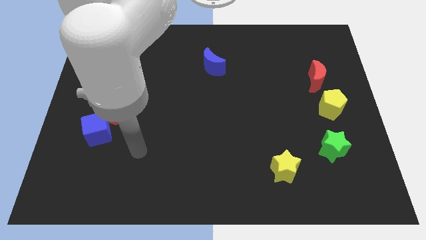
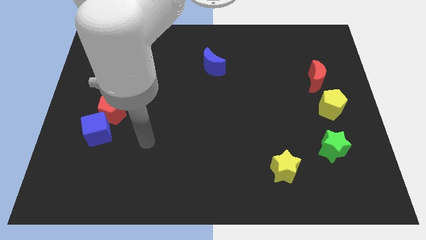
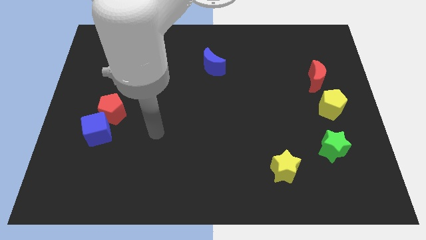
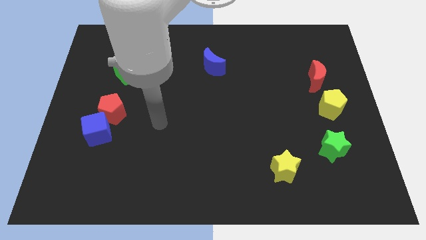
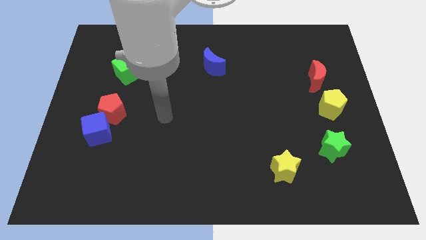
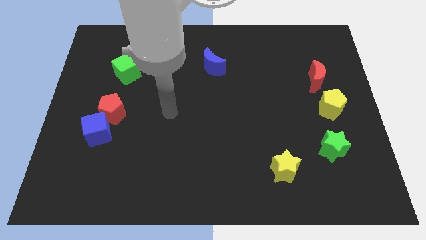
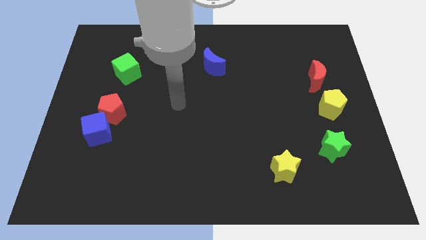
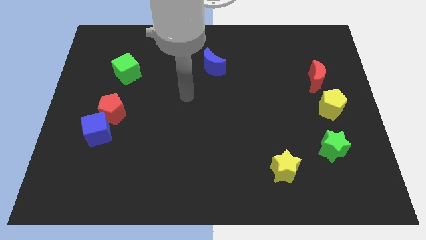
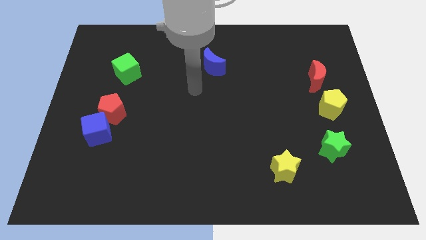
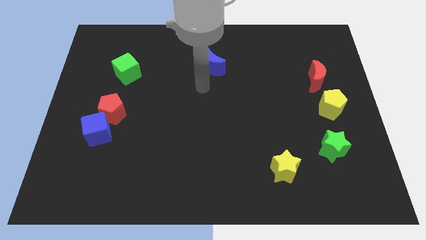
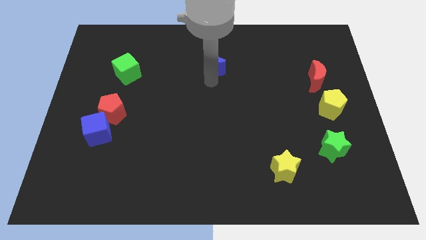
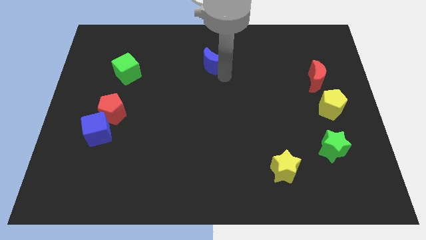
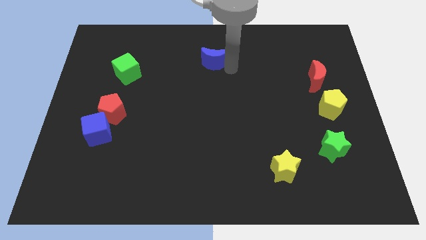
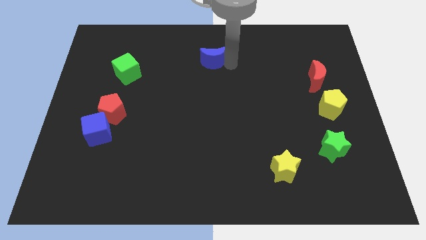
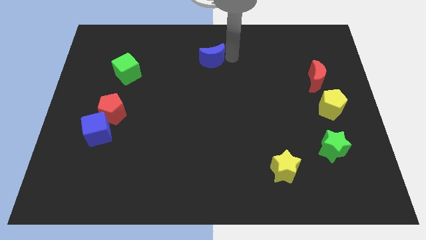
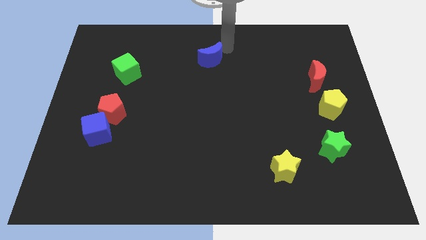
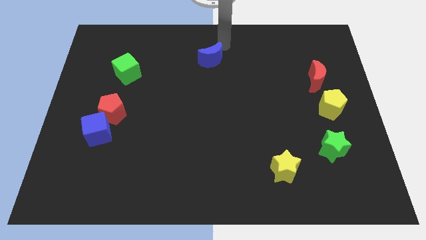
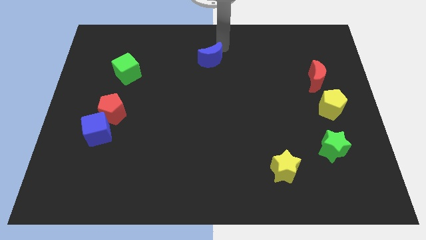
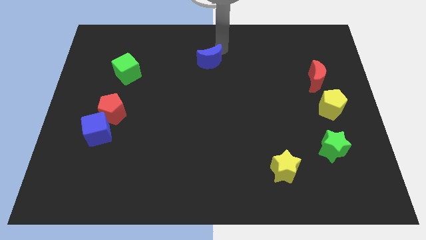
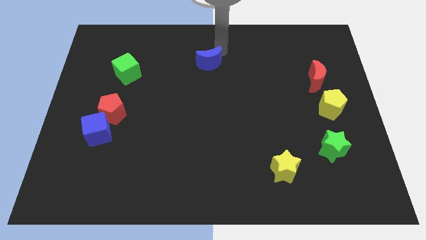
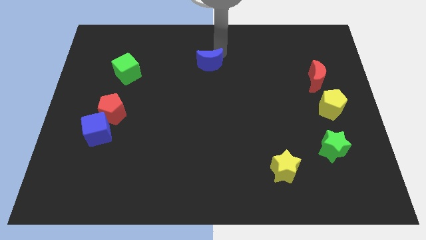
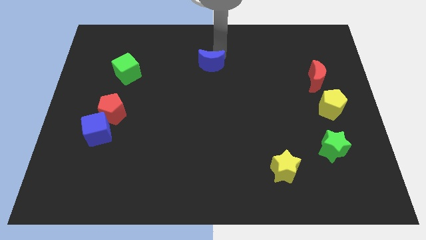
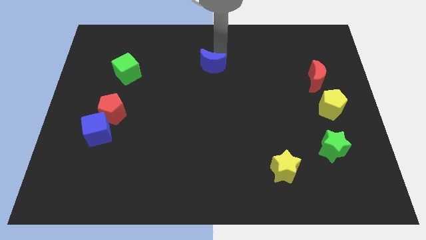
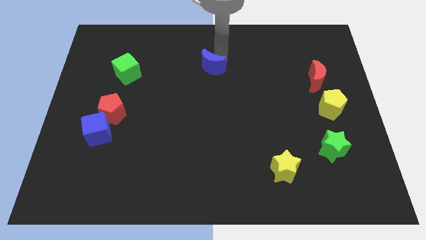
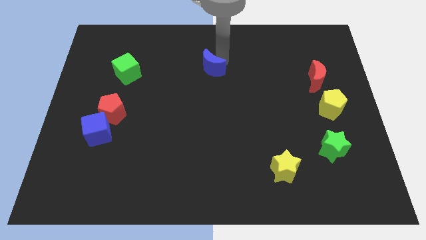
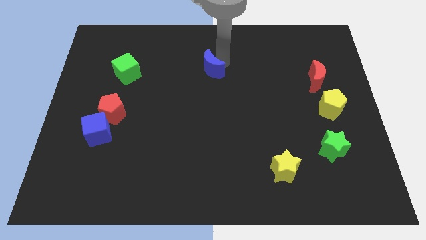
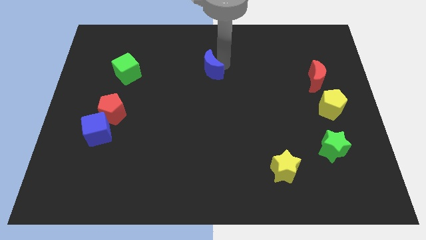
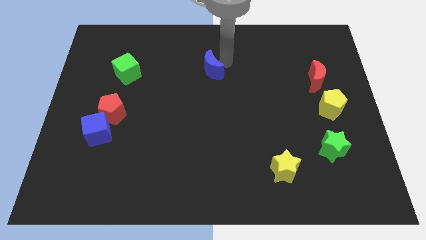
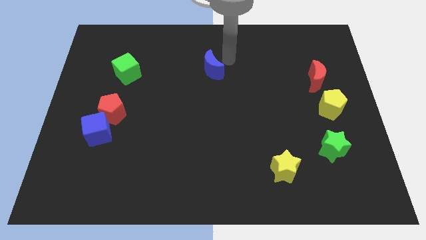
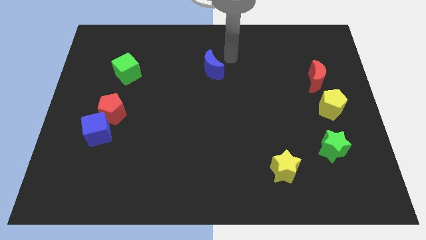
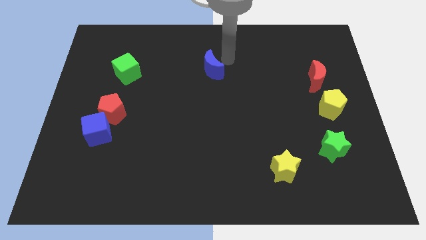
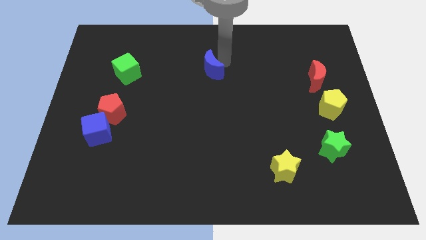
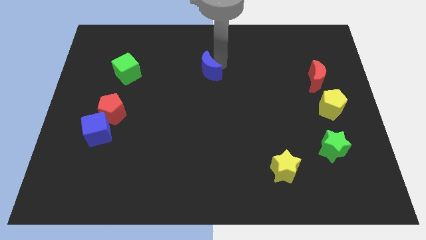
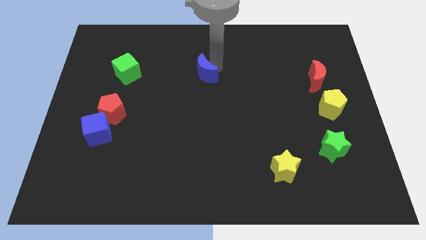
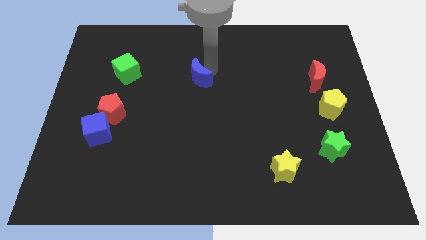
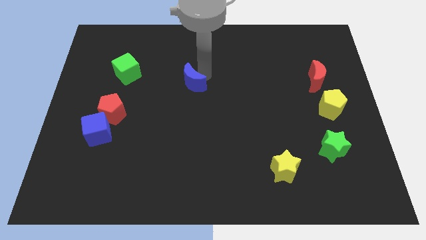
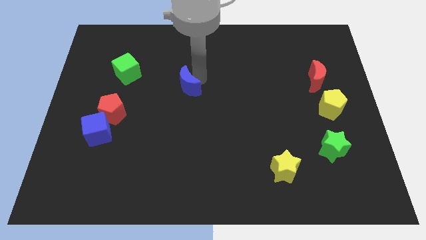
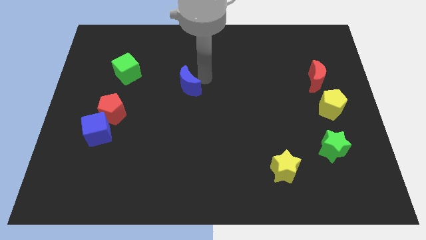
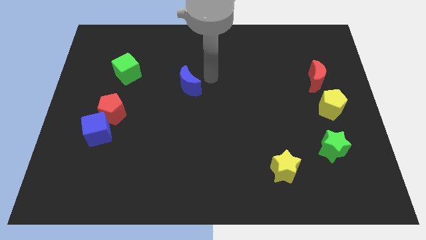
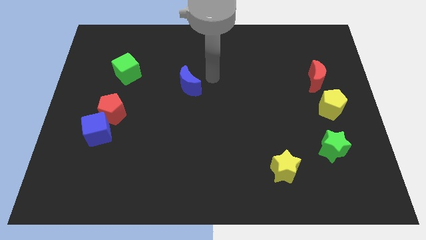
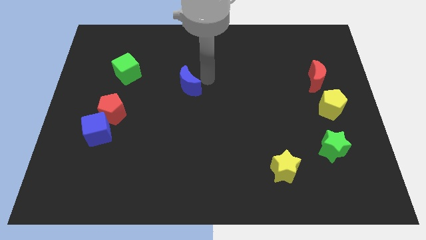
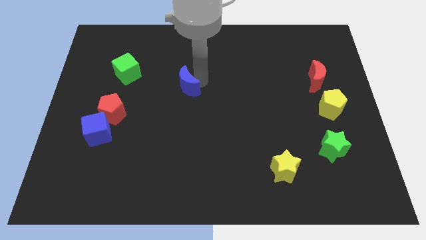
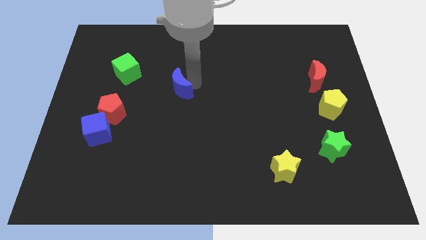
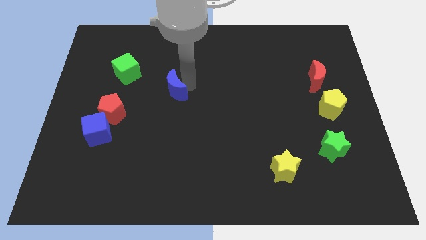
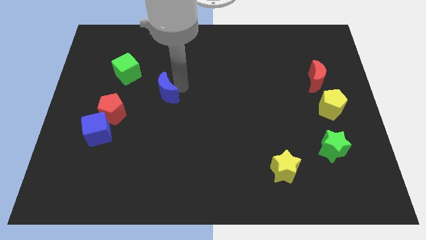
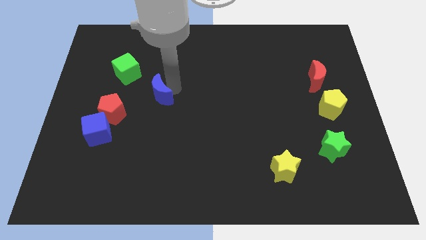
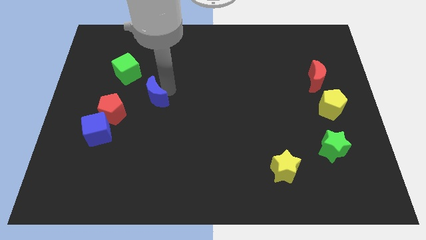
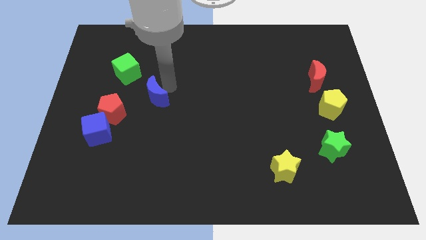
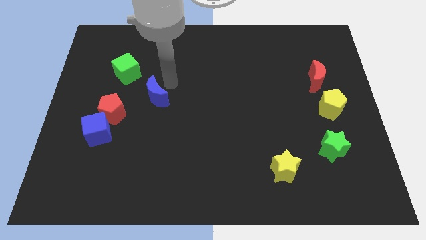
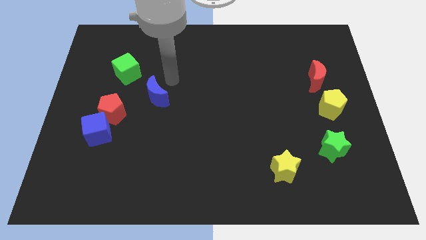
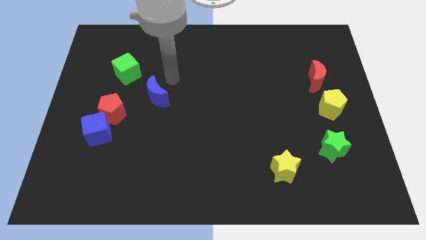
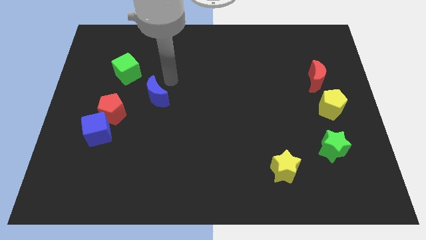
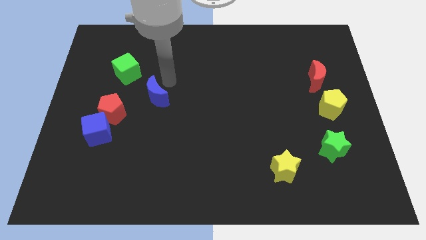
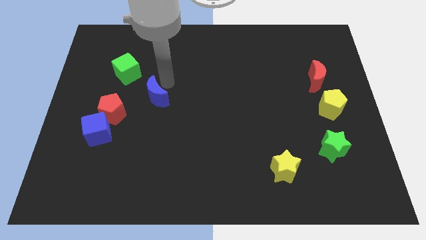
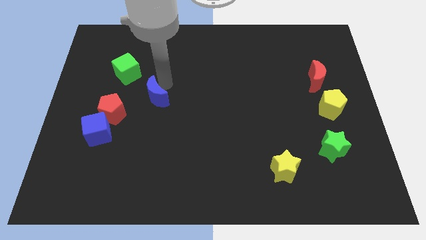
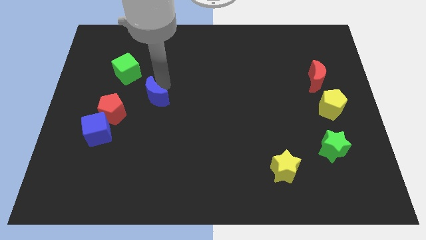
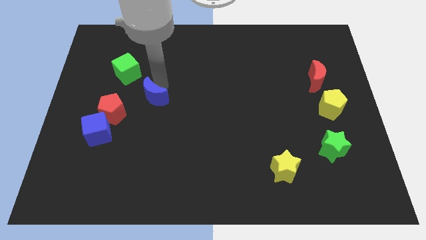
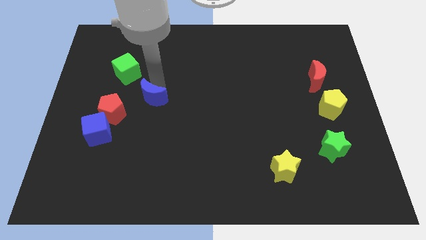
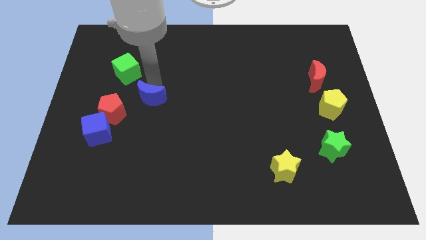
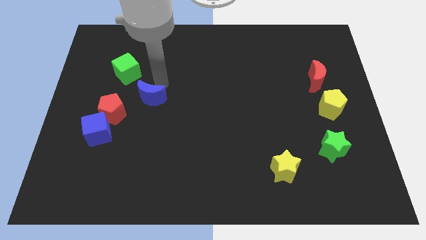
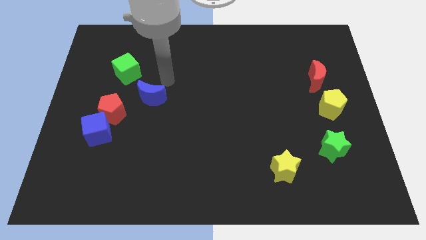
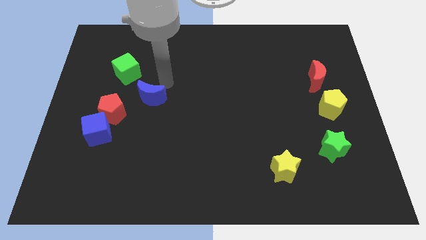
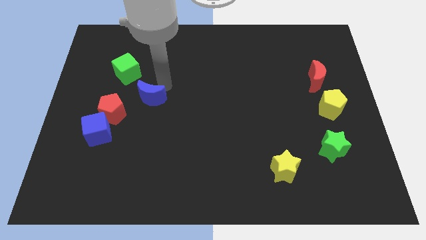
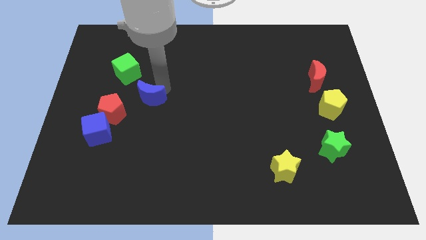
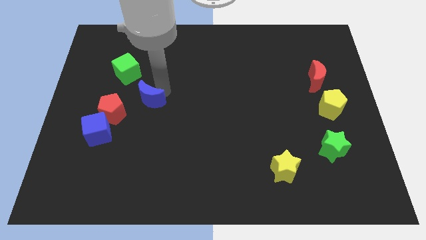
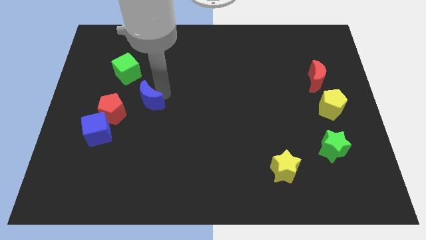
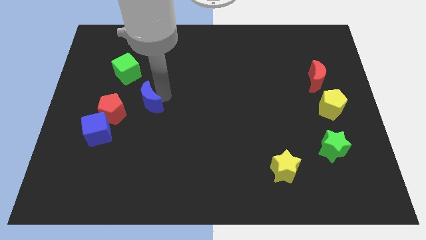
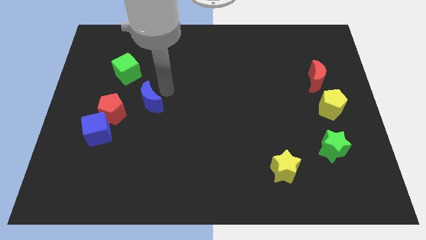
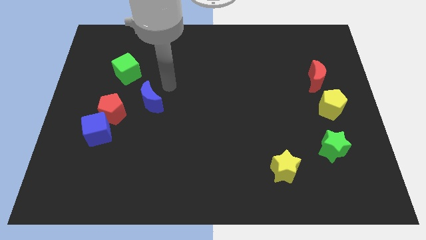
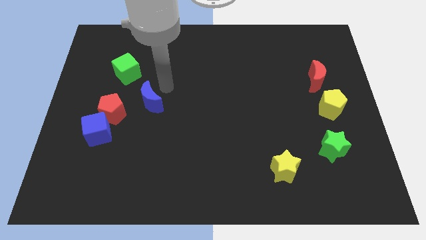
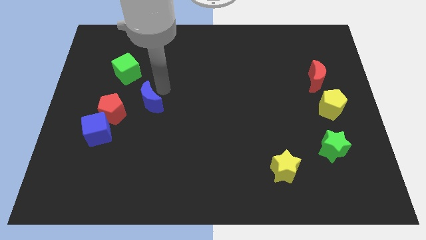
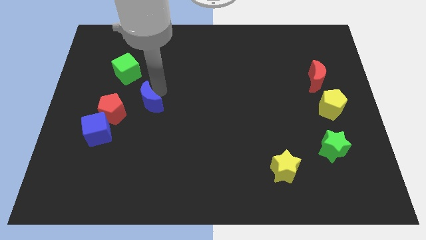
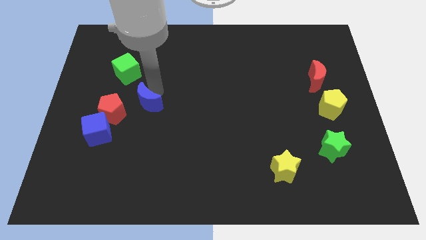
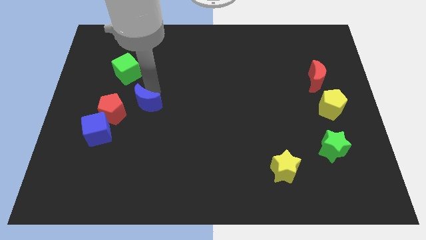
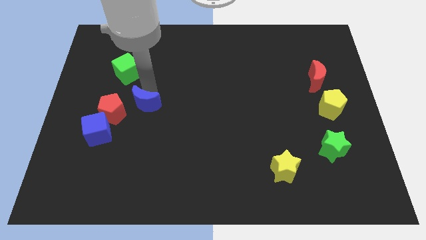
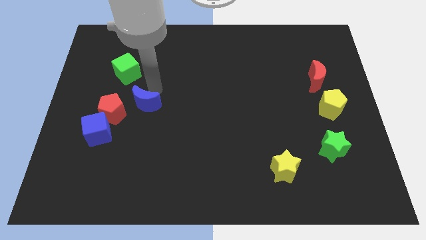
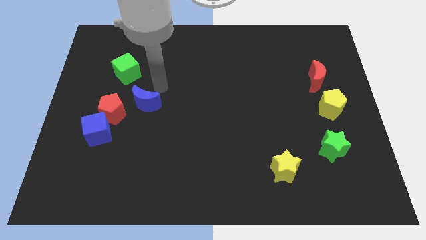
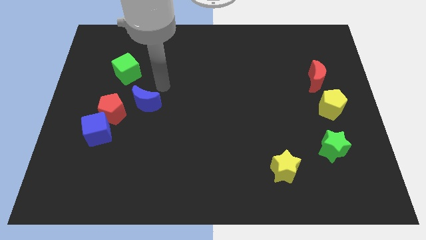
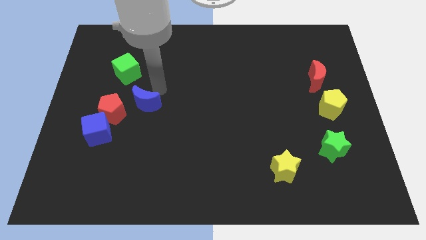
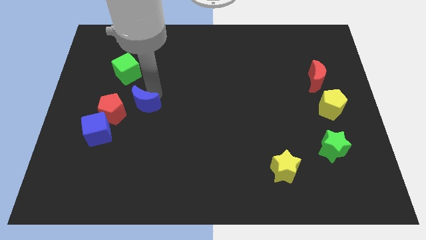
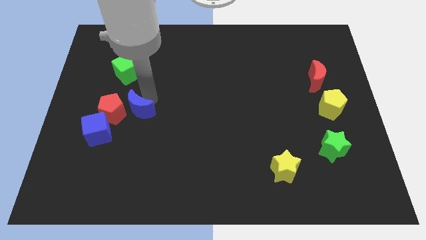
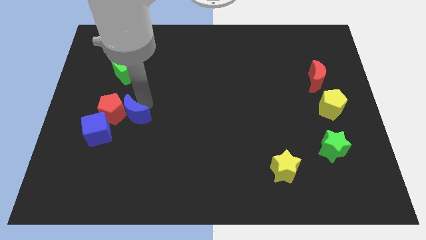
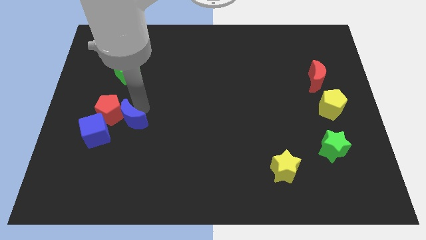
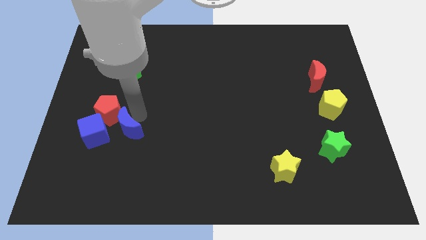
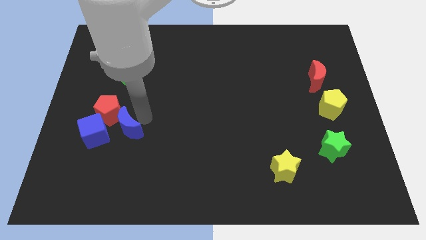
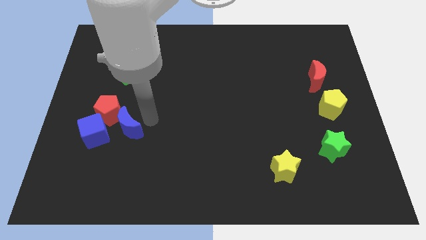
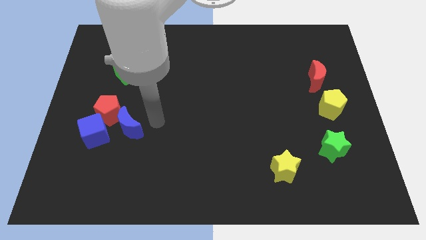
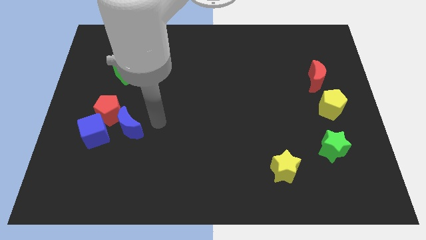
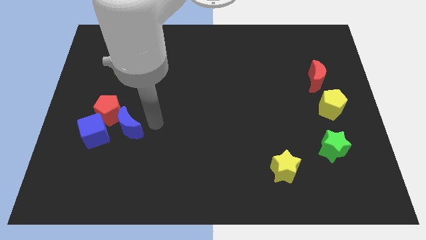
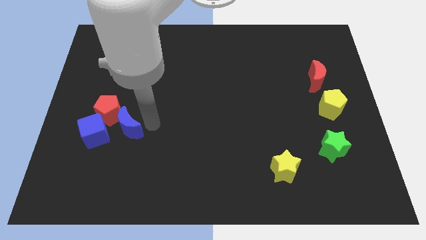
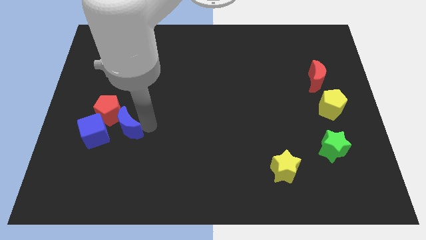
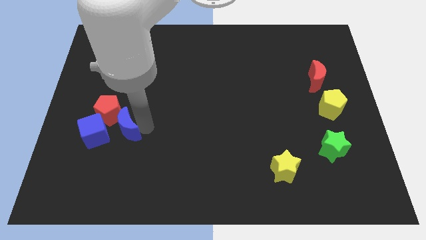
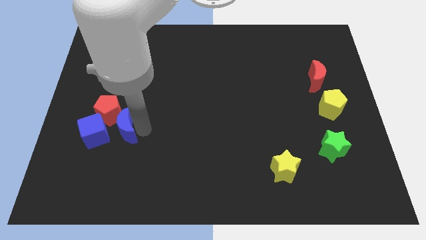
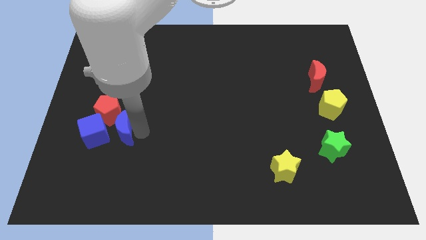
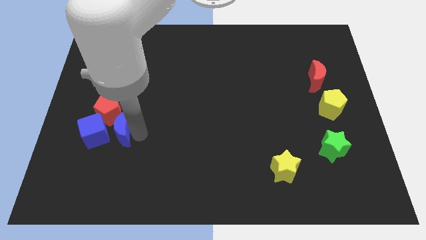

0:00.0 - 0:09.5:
move the blue moon to the blue cube
